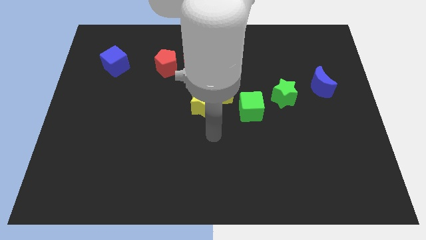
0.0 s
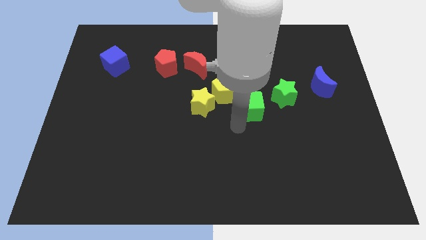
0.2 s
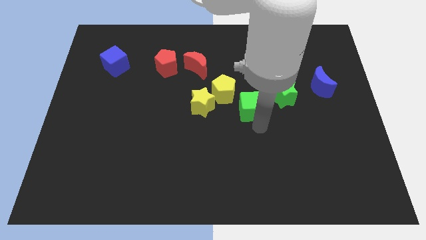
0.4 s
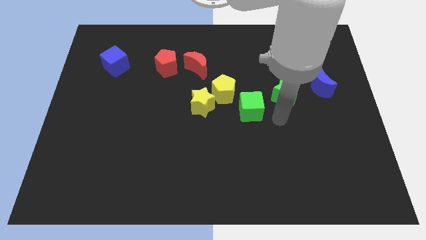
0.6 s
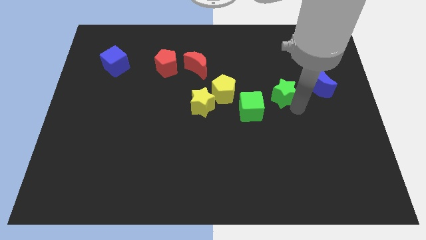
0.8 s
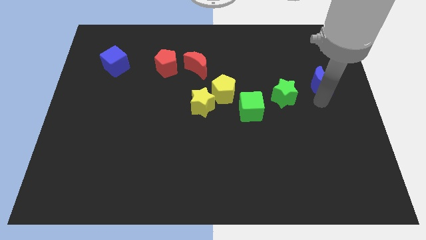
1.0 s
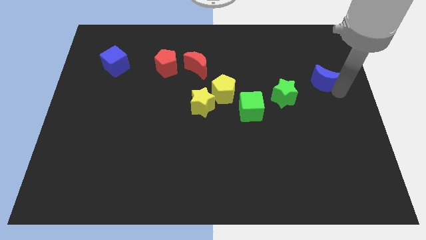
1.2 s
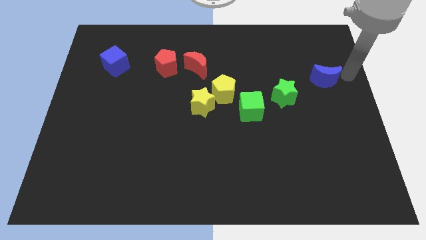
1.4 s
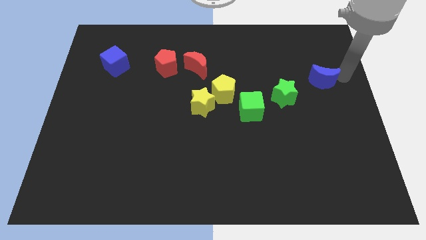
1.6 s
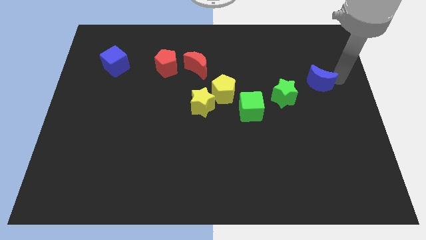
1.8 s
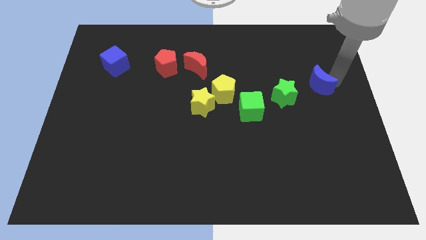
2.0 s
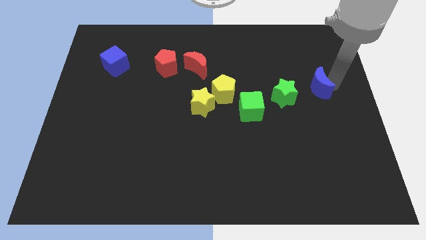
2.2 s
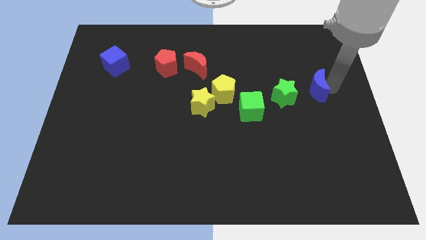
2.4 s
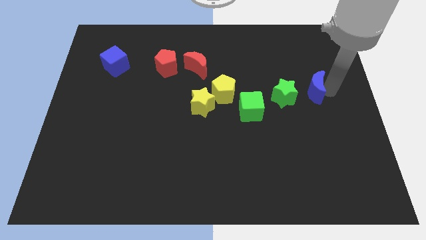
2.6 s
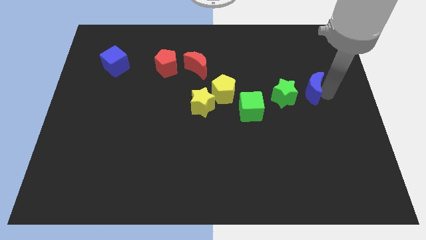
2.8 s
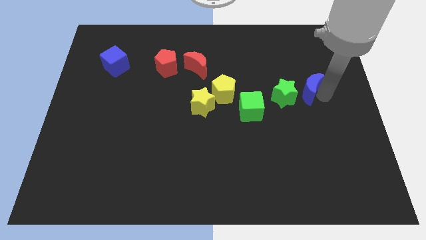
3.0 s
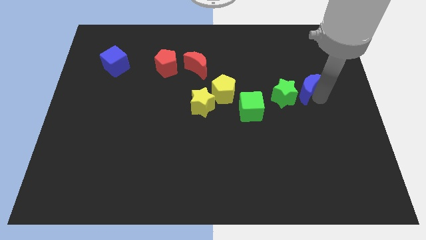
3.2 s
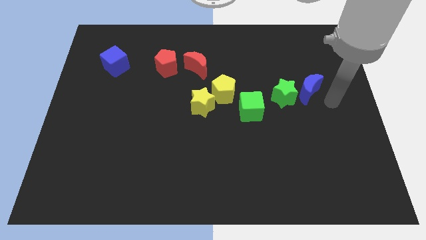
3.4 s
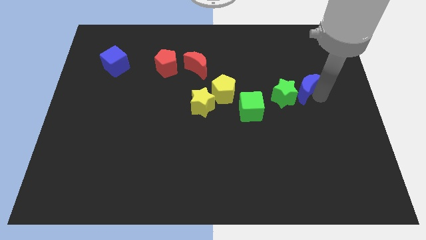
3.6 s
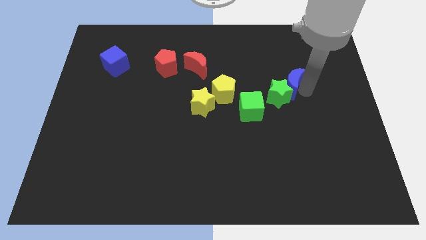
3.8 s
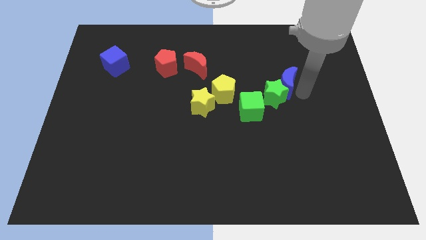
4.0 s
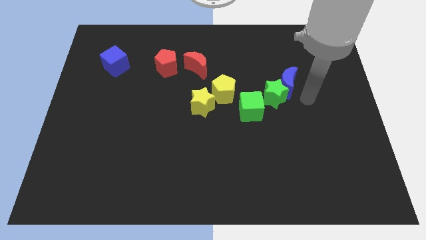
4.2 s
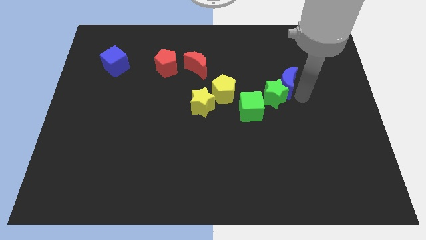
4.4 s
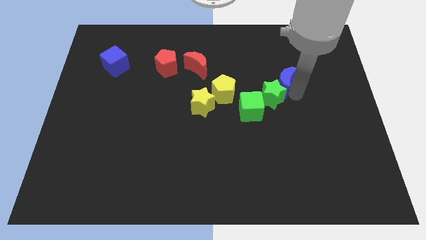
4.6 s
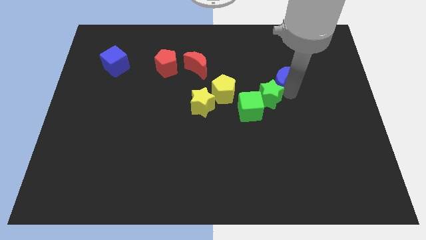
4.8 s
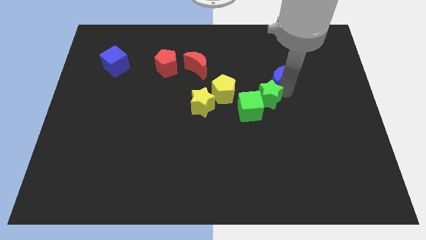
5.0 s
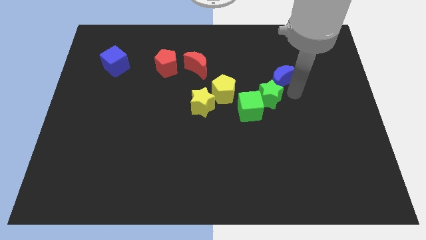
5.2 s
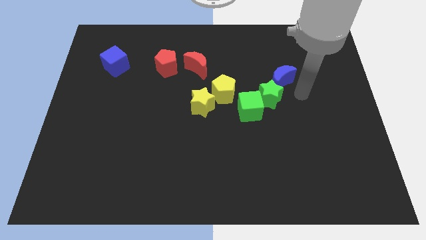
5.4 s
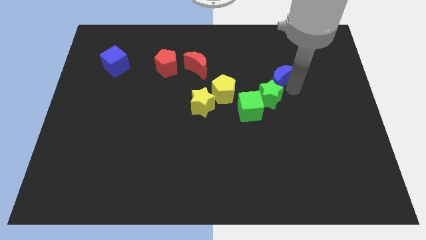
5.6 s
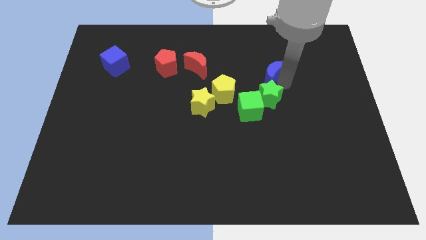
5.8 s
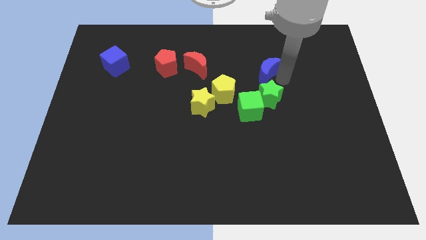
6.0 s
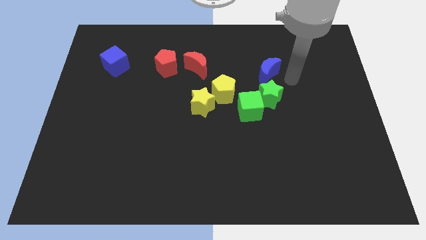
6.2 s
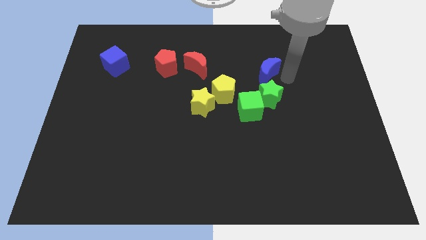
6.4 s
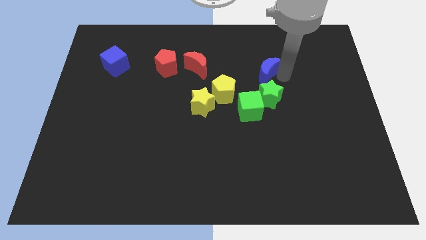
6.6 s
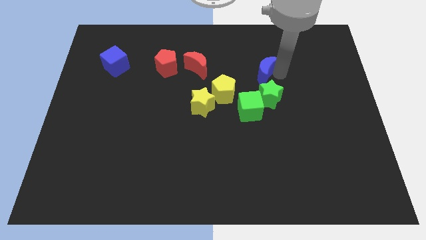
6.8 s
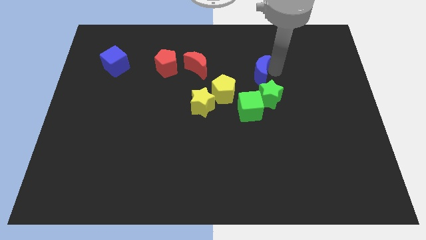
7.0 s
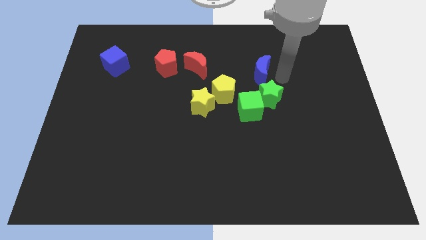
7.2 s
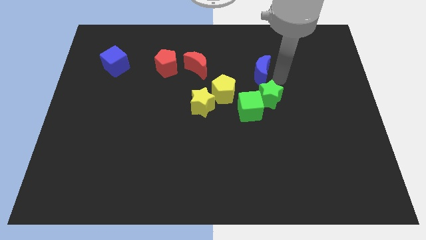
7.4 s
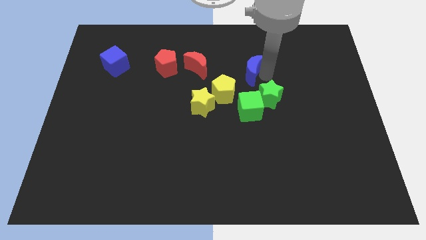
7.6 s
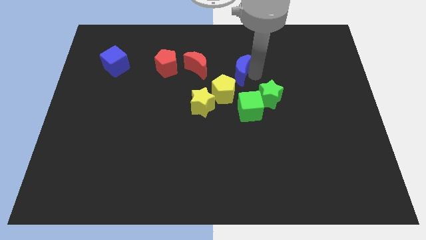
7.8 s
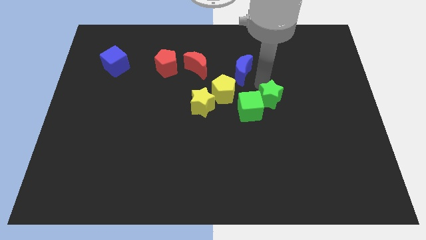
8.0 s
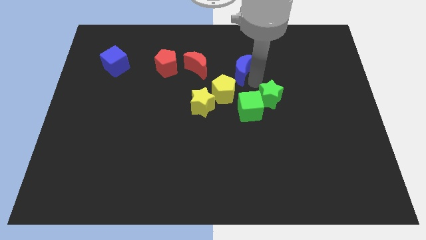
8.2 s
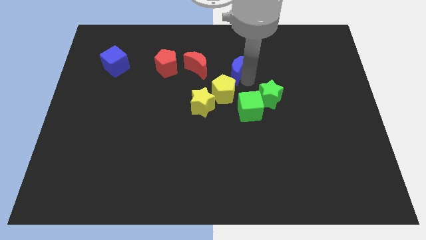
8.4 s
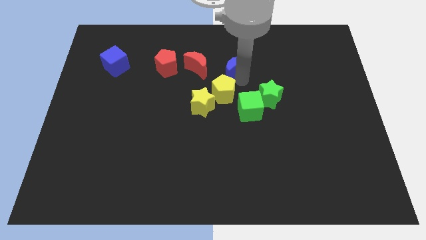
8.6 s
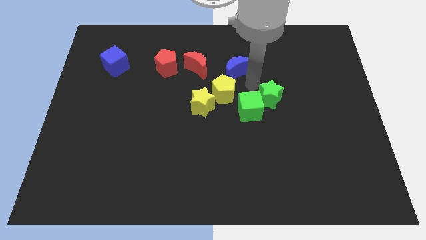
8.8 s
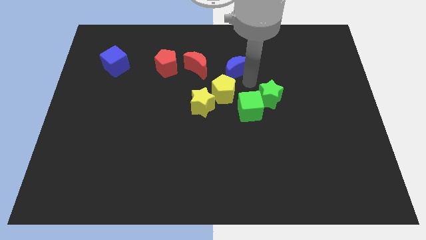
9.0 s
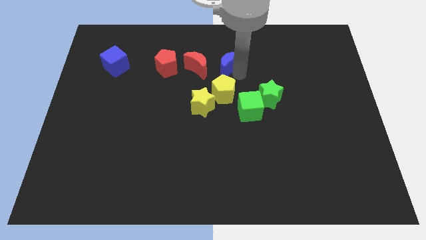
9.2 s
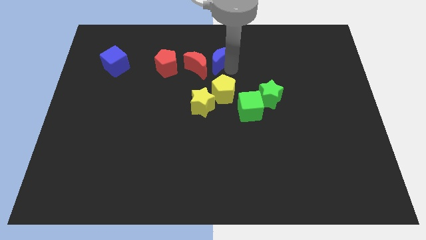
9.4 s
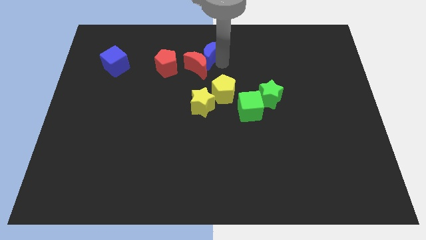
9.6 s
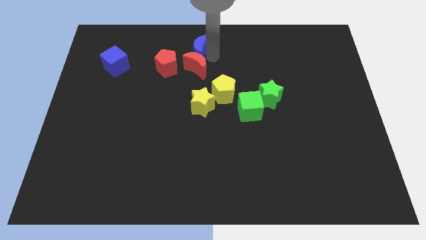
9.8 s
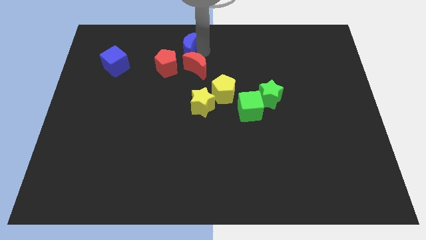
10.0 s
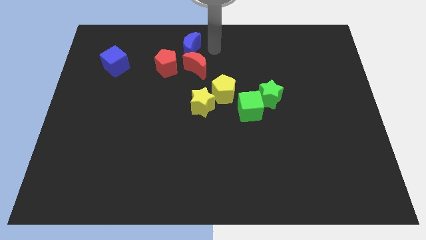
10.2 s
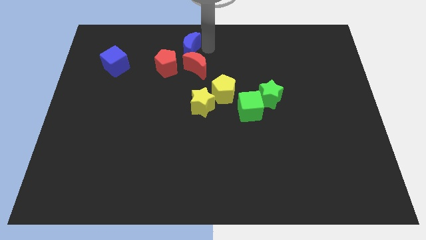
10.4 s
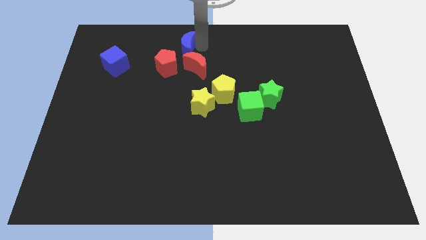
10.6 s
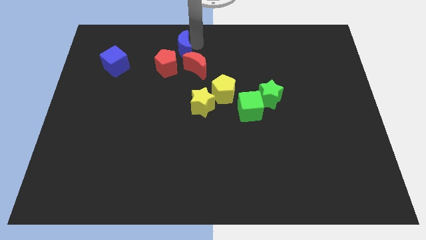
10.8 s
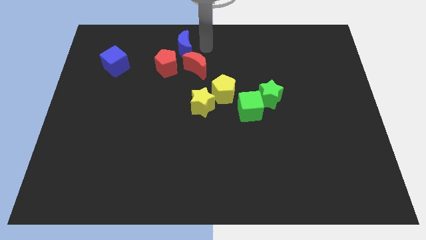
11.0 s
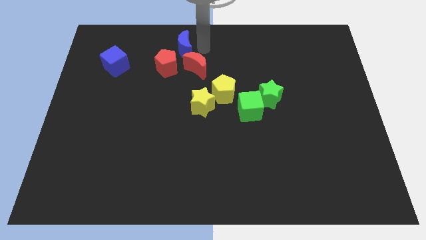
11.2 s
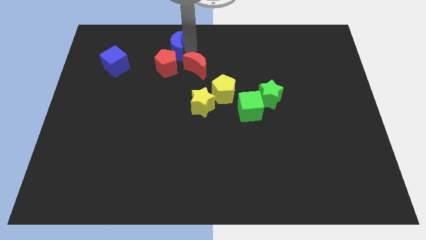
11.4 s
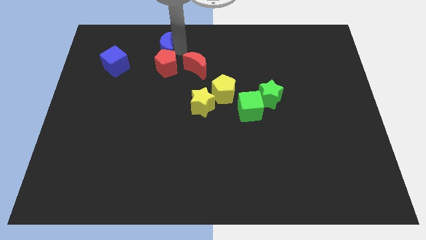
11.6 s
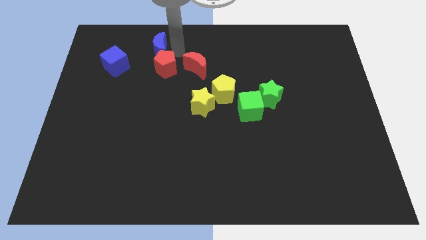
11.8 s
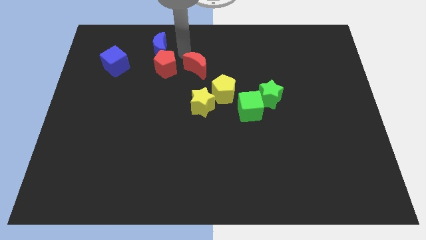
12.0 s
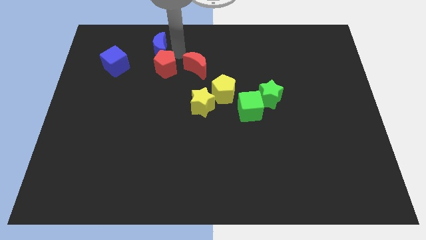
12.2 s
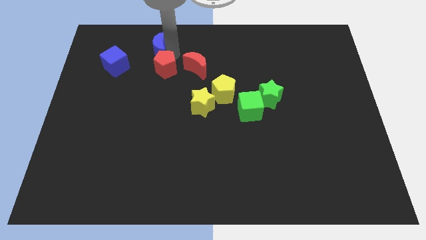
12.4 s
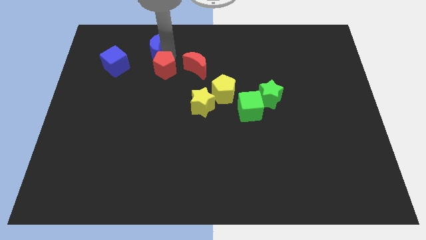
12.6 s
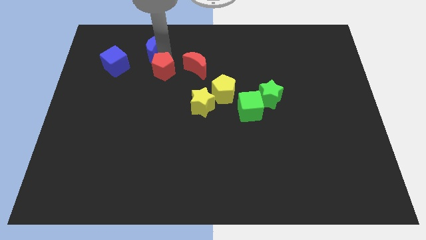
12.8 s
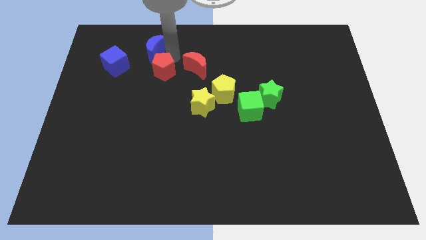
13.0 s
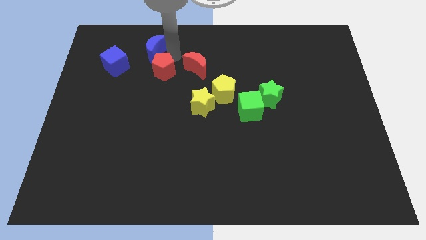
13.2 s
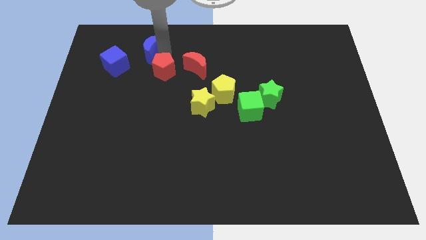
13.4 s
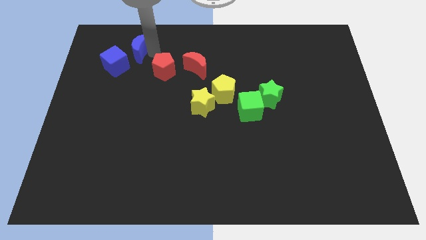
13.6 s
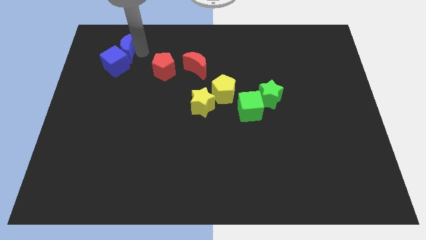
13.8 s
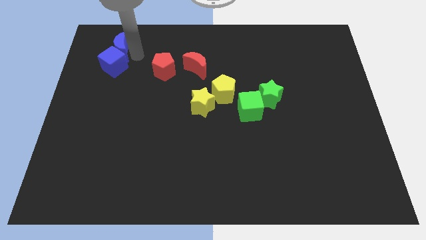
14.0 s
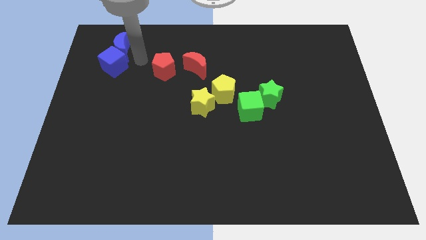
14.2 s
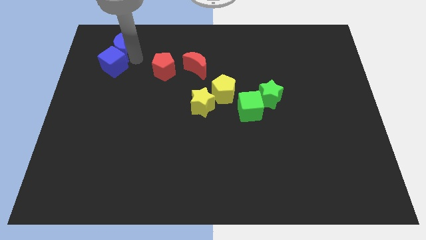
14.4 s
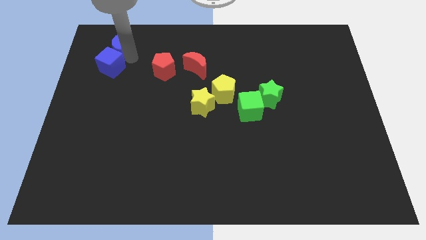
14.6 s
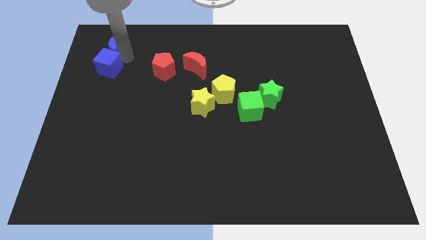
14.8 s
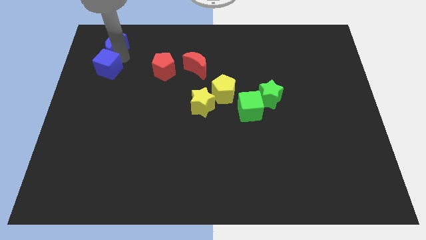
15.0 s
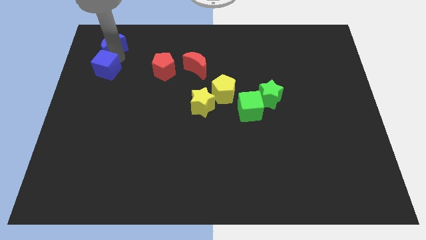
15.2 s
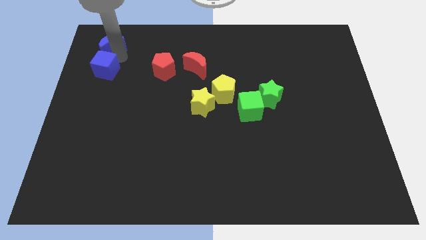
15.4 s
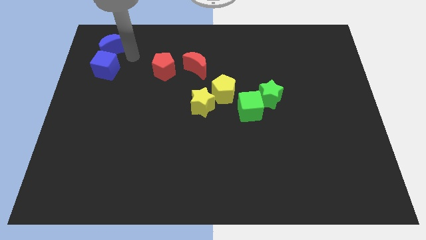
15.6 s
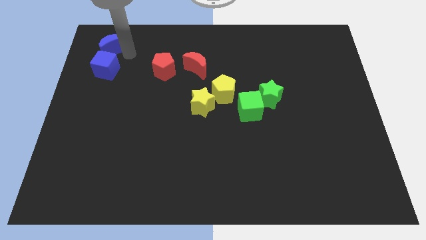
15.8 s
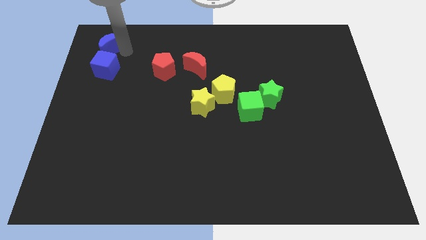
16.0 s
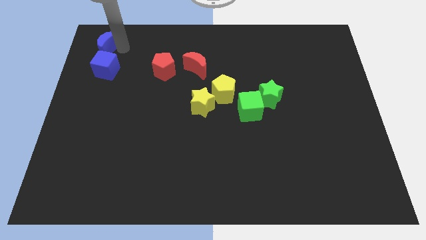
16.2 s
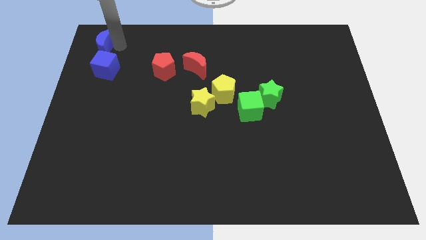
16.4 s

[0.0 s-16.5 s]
slide the blue moon to the top left of the board
